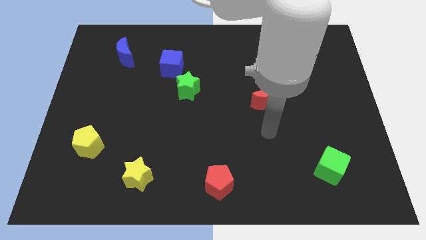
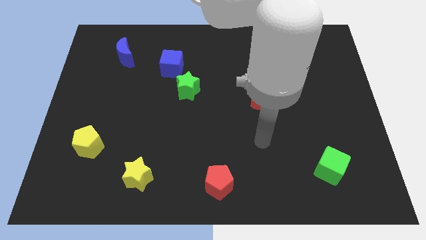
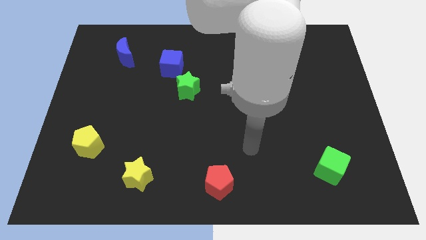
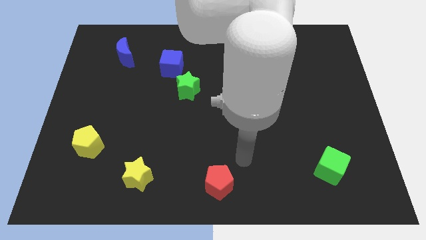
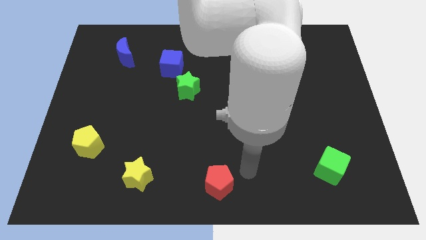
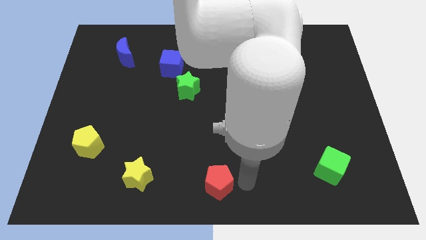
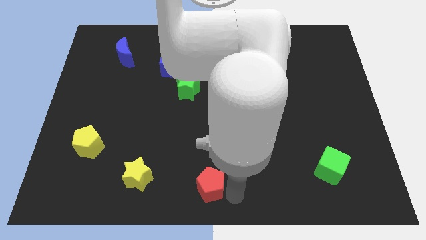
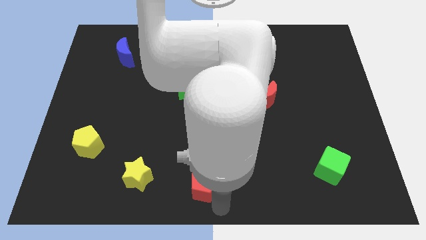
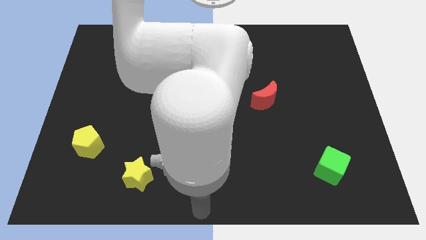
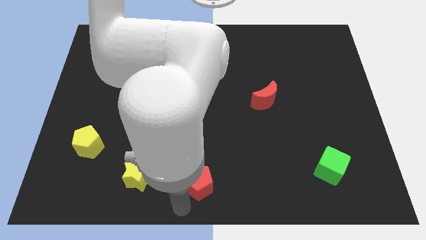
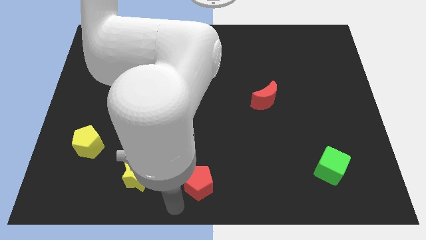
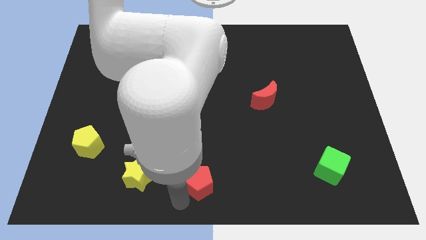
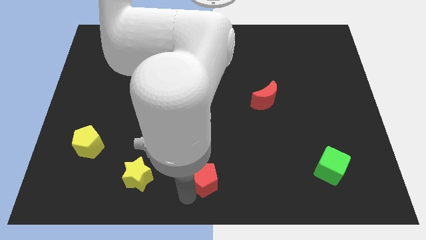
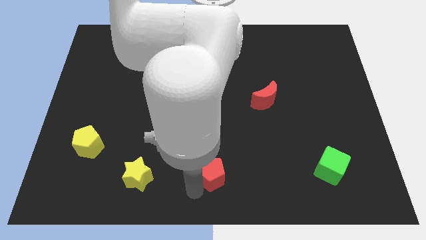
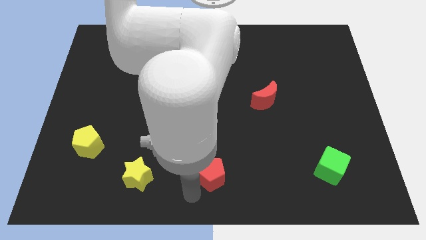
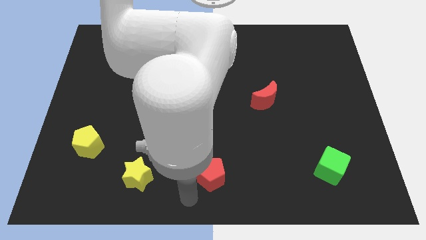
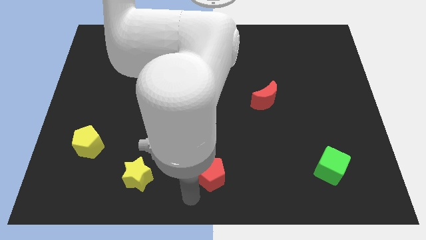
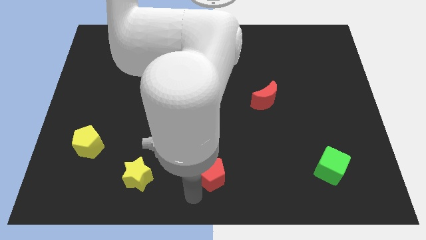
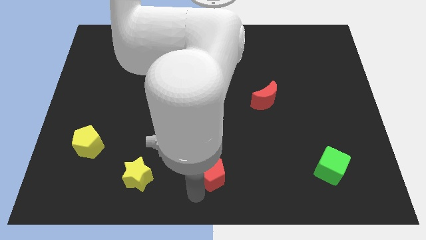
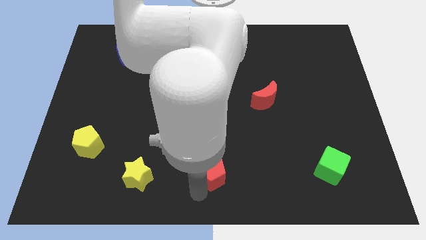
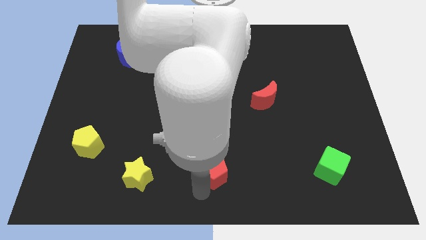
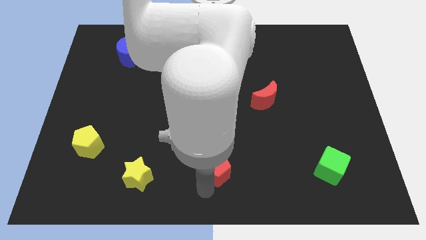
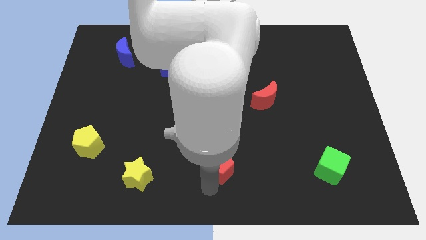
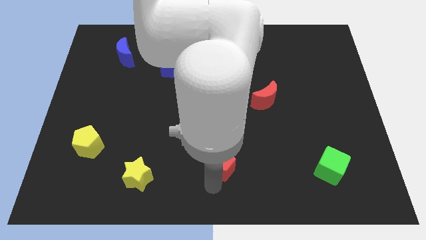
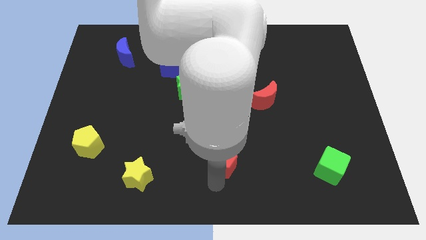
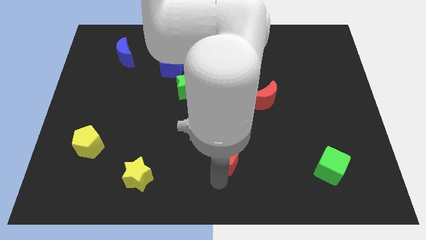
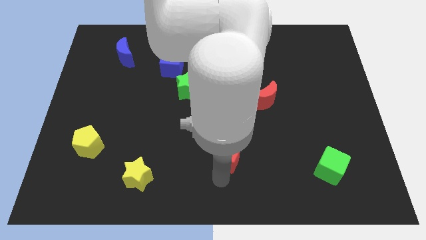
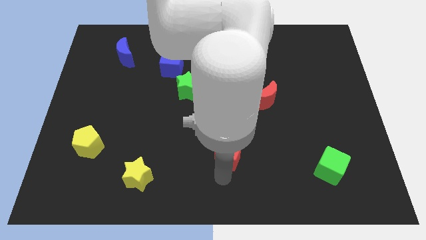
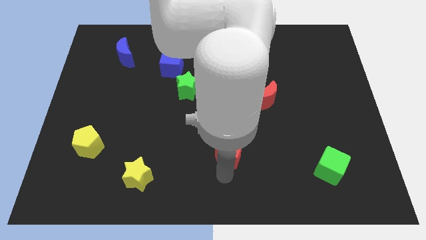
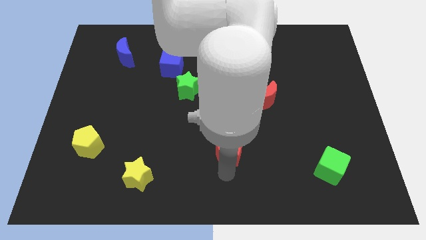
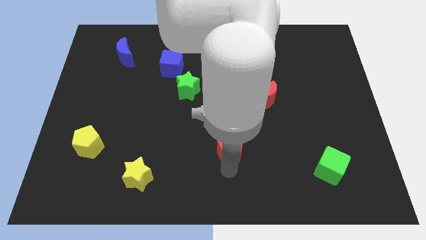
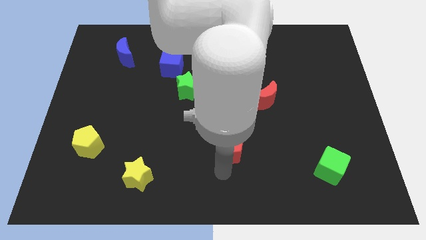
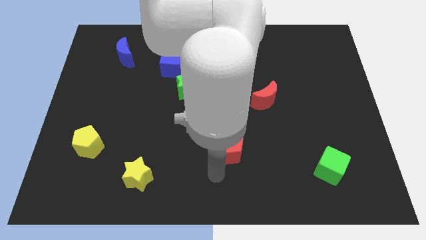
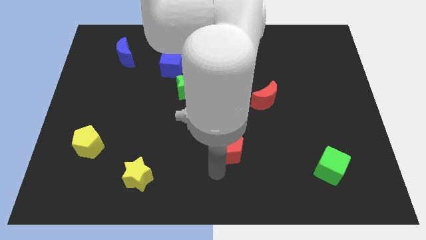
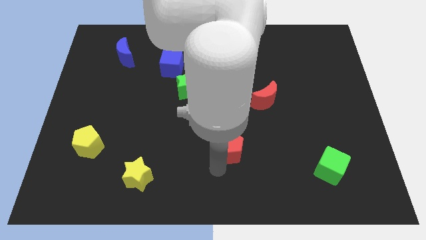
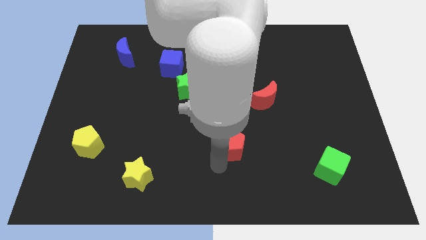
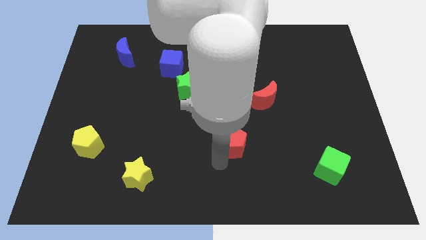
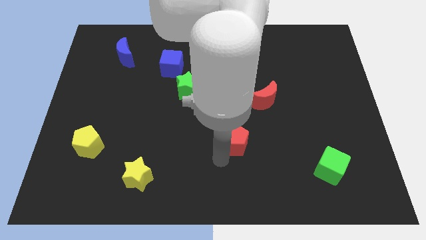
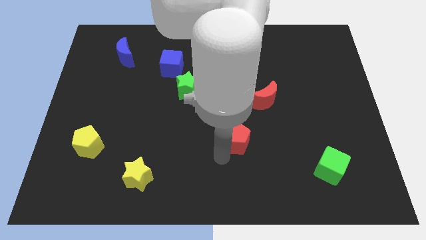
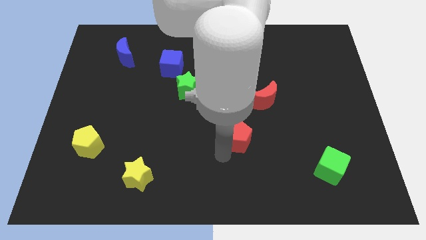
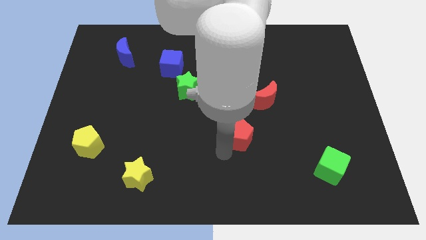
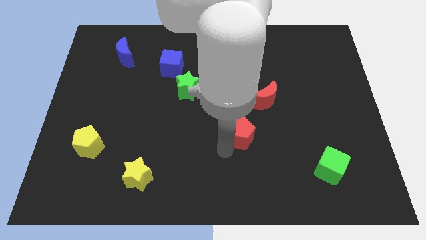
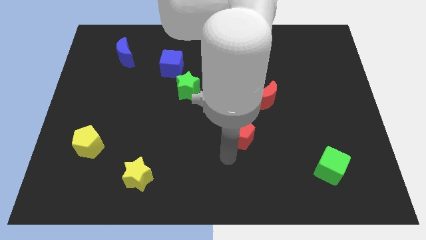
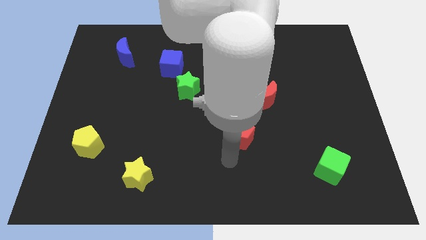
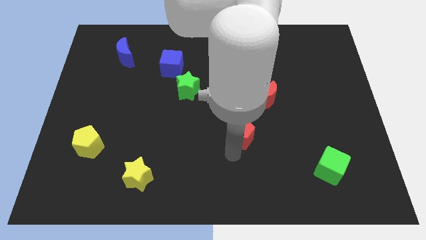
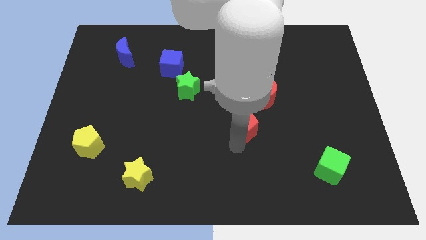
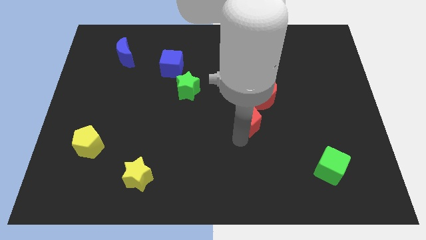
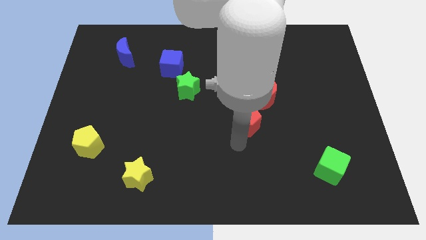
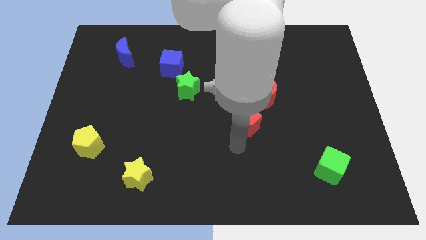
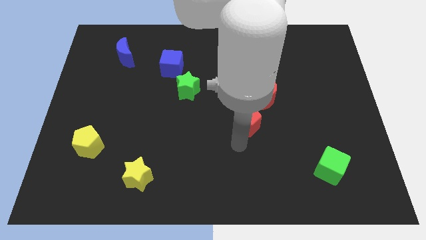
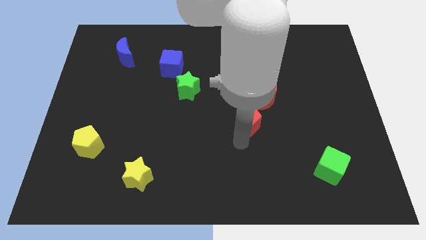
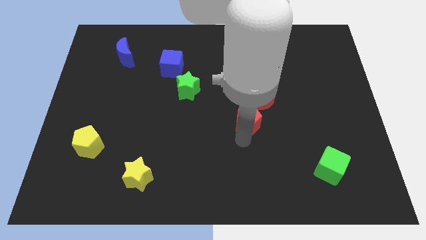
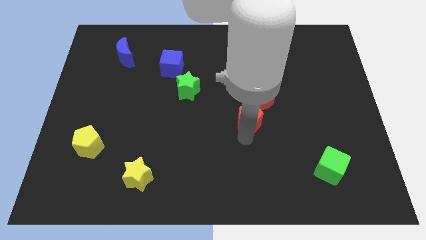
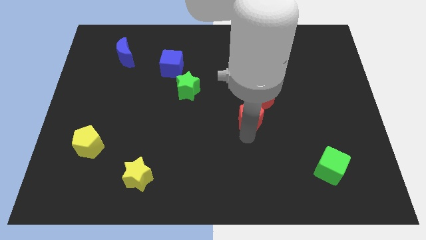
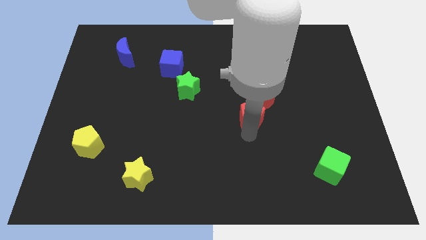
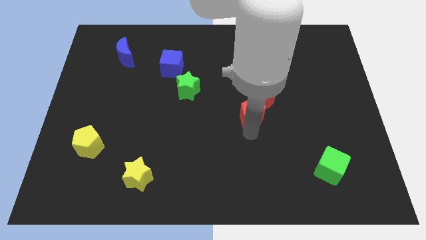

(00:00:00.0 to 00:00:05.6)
move the red pentagon to the red moon
